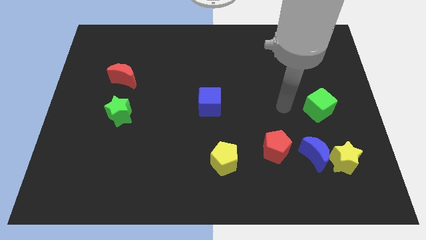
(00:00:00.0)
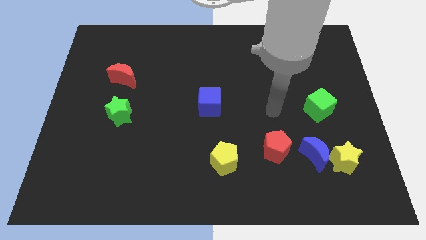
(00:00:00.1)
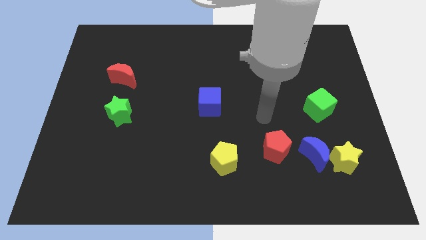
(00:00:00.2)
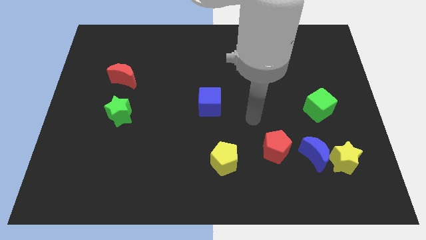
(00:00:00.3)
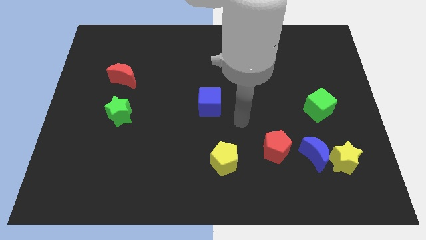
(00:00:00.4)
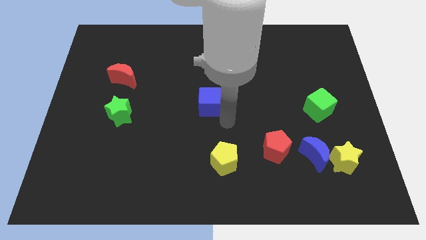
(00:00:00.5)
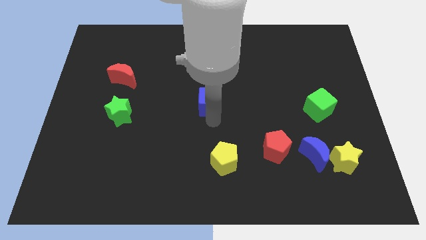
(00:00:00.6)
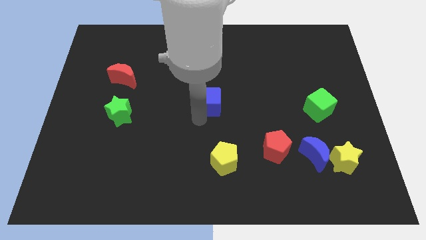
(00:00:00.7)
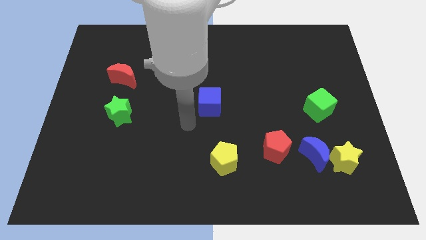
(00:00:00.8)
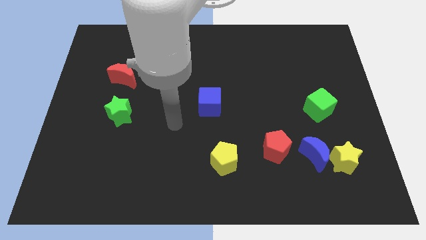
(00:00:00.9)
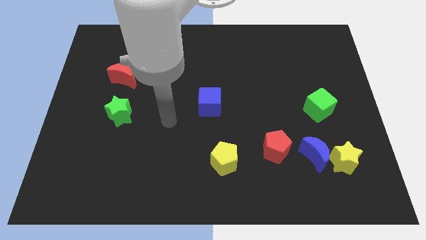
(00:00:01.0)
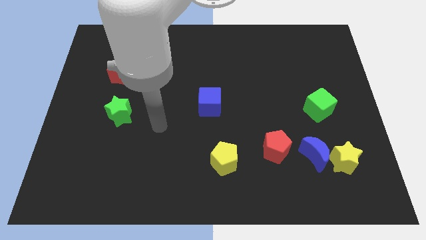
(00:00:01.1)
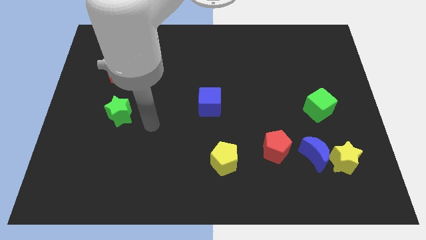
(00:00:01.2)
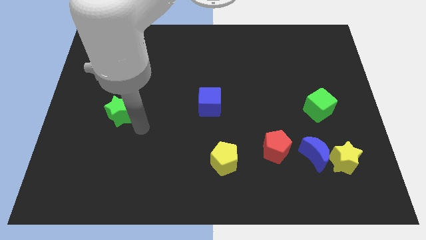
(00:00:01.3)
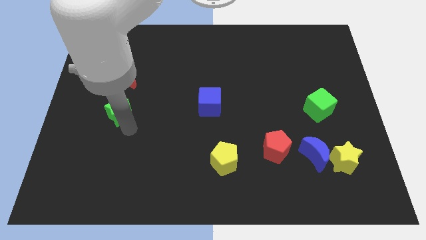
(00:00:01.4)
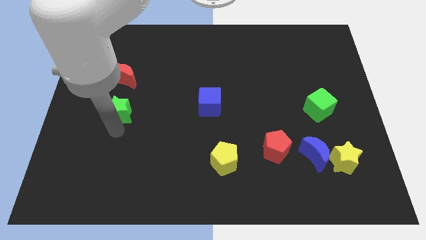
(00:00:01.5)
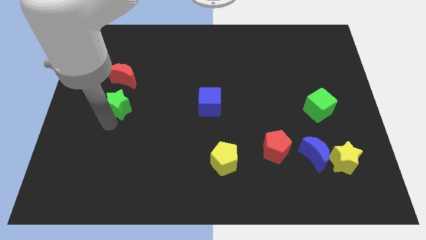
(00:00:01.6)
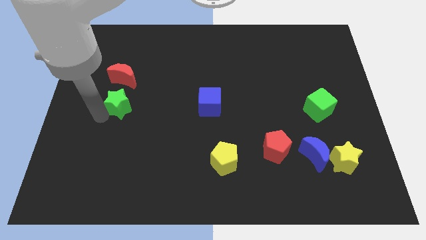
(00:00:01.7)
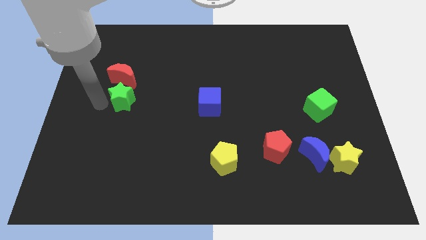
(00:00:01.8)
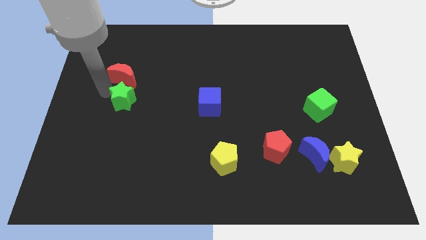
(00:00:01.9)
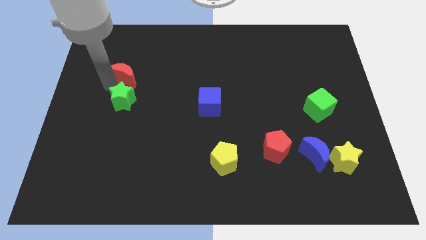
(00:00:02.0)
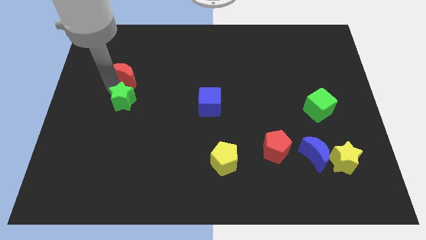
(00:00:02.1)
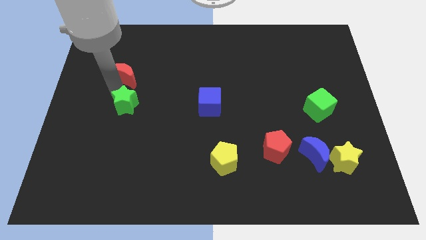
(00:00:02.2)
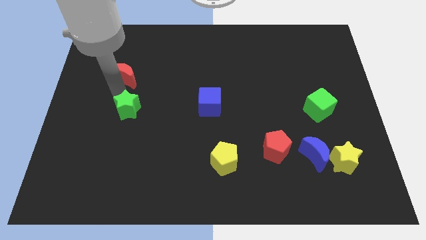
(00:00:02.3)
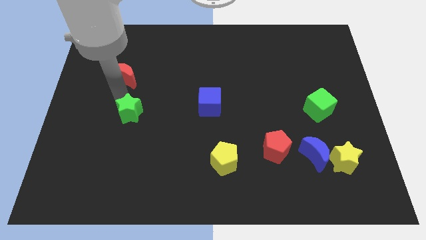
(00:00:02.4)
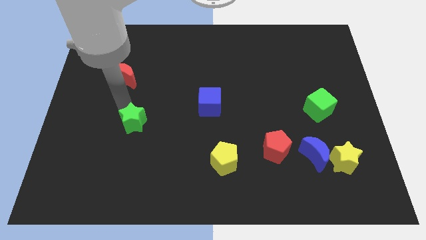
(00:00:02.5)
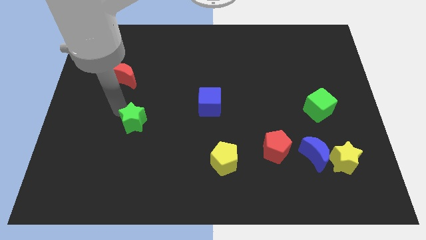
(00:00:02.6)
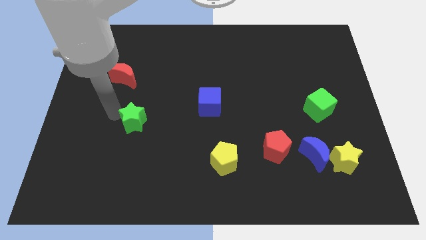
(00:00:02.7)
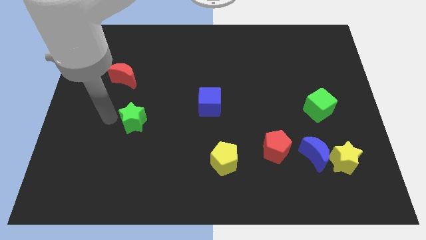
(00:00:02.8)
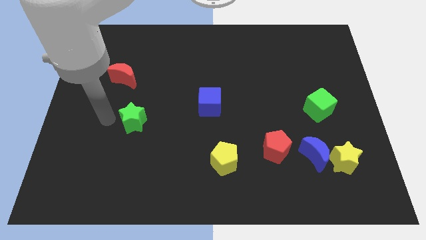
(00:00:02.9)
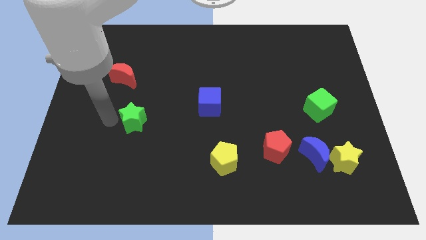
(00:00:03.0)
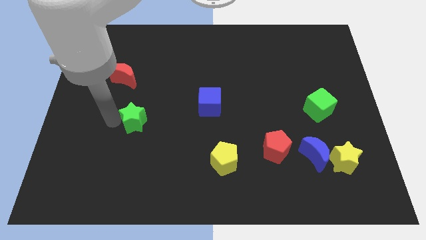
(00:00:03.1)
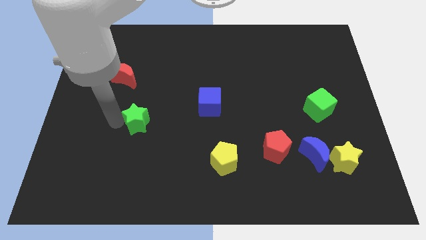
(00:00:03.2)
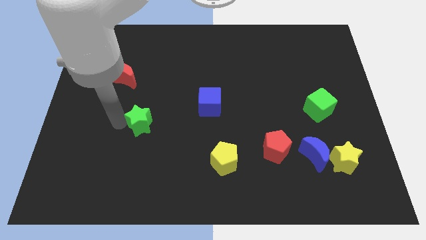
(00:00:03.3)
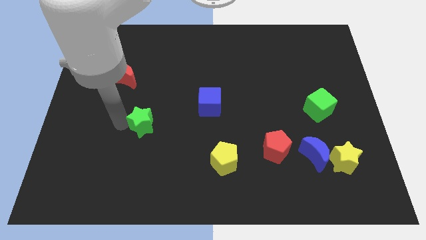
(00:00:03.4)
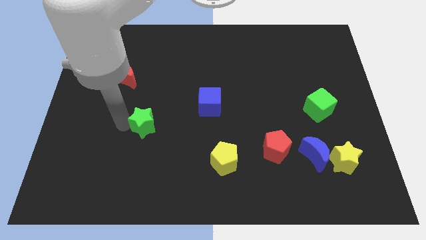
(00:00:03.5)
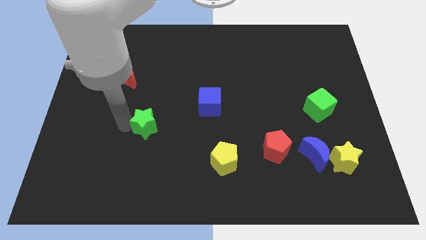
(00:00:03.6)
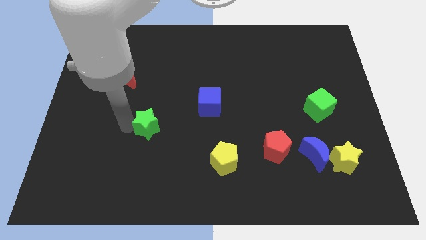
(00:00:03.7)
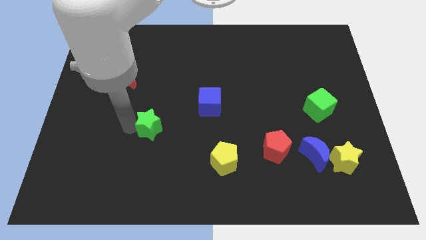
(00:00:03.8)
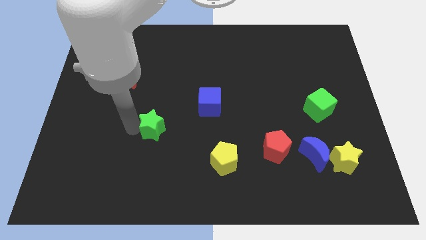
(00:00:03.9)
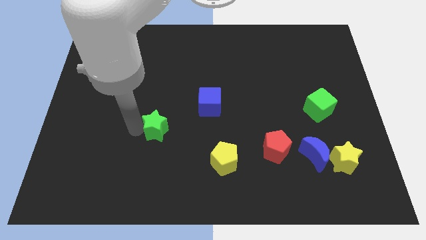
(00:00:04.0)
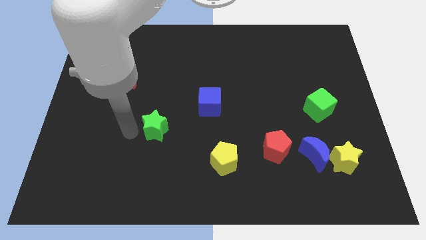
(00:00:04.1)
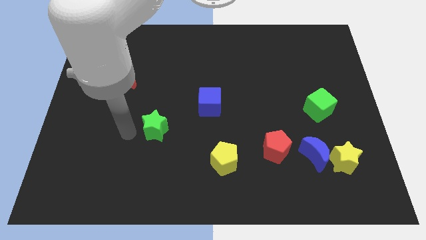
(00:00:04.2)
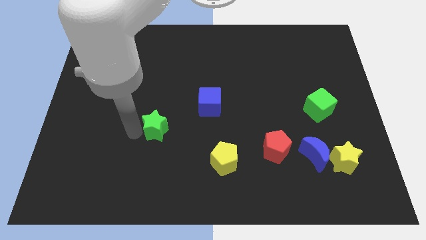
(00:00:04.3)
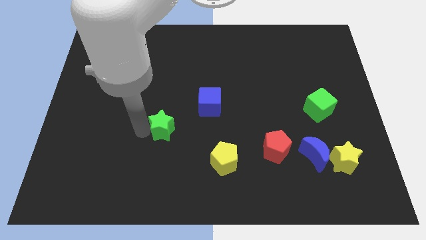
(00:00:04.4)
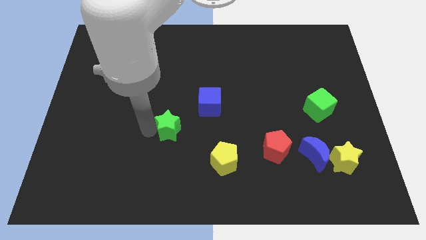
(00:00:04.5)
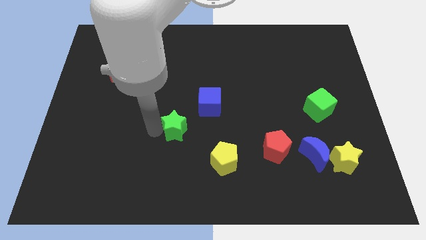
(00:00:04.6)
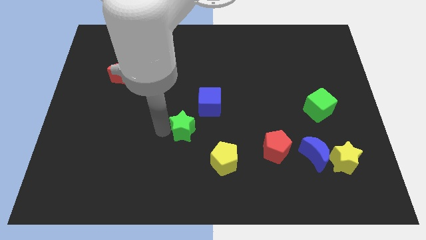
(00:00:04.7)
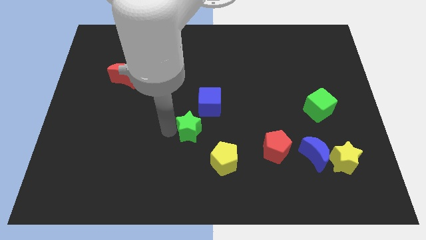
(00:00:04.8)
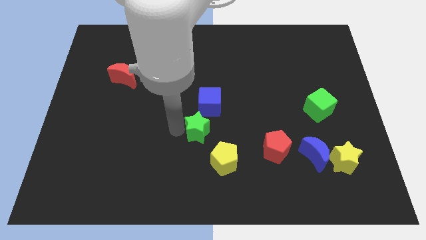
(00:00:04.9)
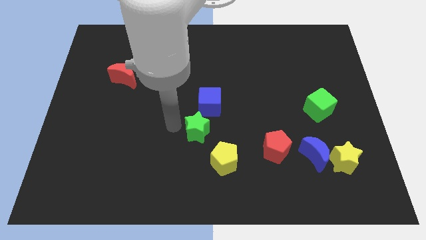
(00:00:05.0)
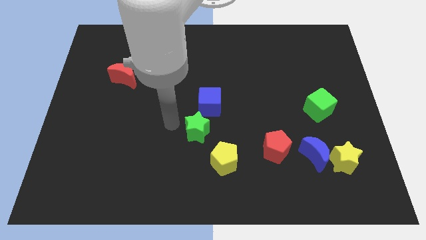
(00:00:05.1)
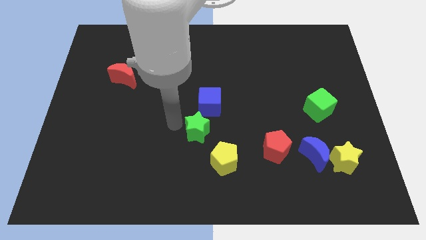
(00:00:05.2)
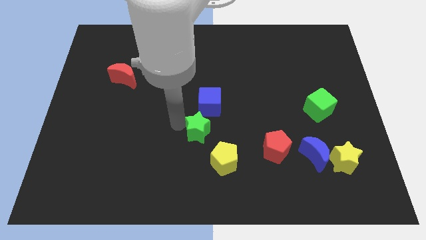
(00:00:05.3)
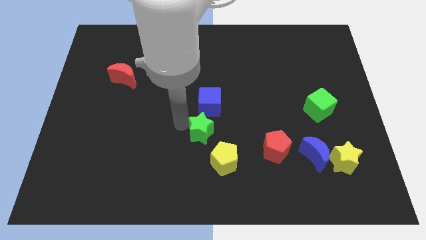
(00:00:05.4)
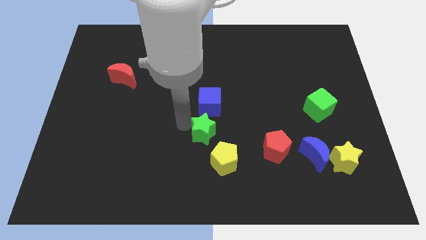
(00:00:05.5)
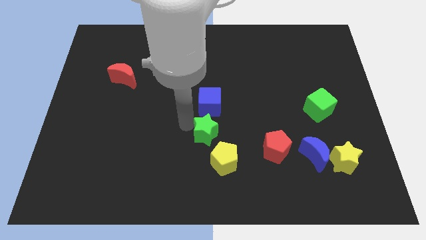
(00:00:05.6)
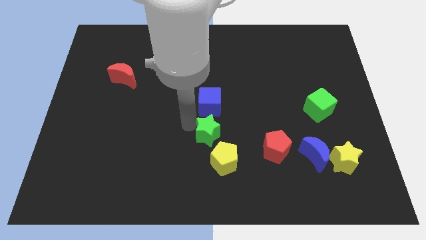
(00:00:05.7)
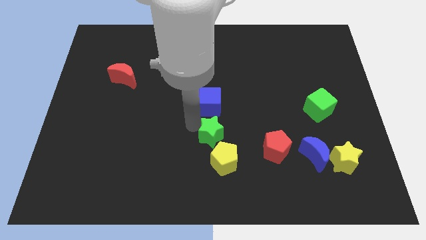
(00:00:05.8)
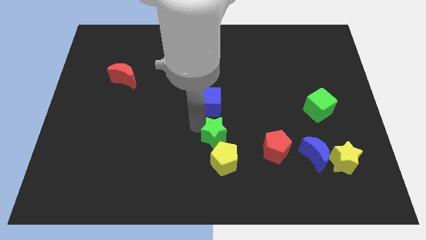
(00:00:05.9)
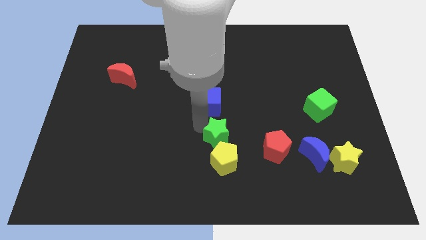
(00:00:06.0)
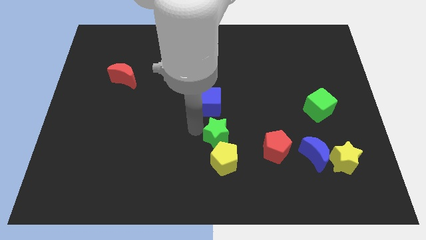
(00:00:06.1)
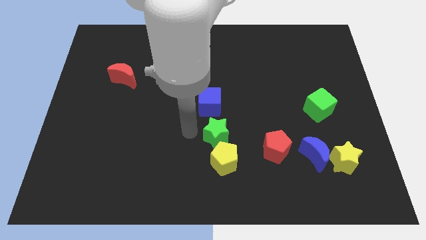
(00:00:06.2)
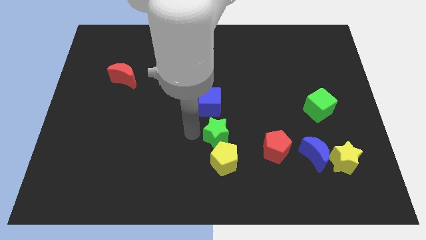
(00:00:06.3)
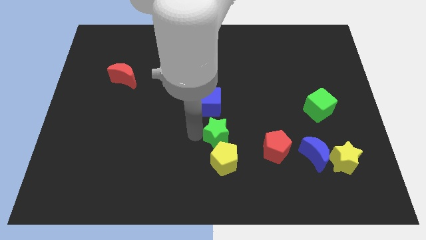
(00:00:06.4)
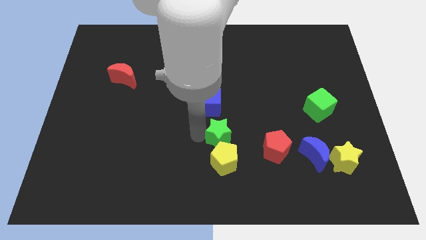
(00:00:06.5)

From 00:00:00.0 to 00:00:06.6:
move the green star to the top right of the yellow pentagon
